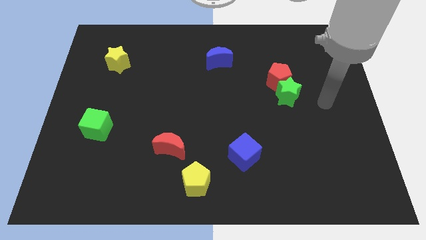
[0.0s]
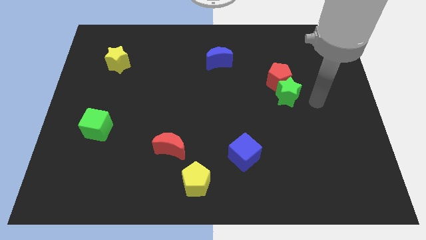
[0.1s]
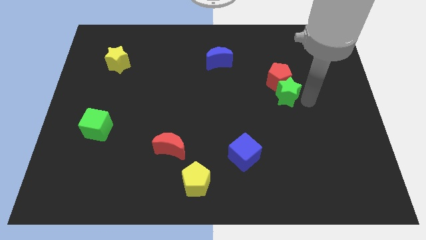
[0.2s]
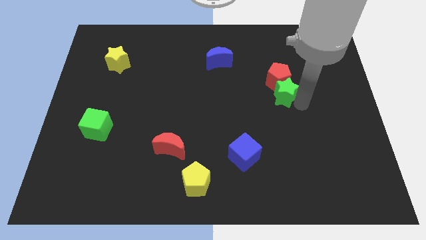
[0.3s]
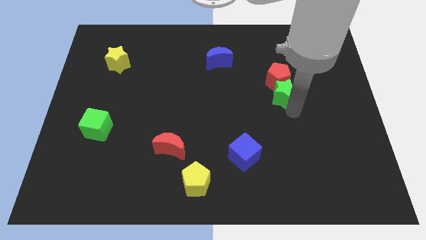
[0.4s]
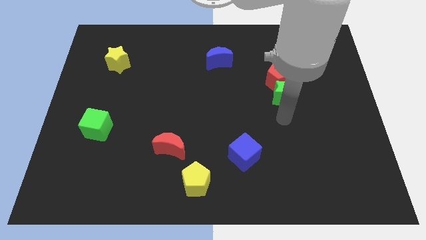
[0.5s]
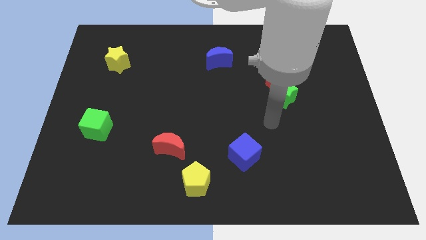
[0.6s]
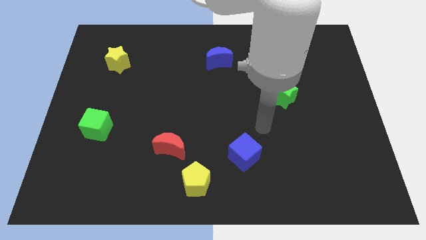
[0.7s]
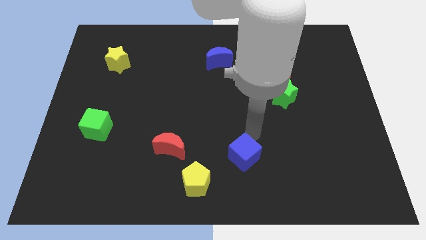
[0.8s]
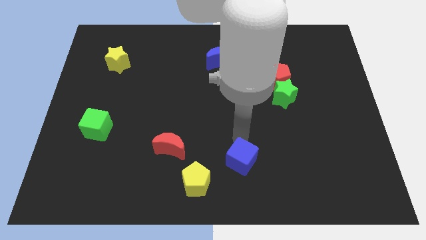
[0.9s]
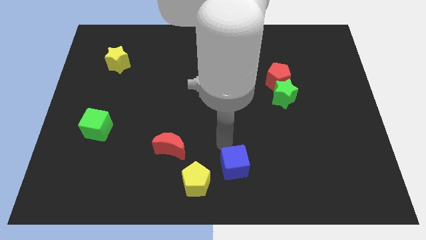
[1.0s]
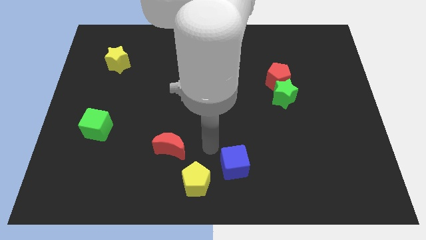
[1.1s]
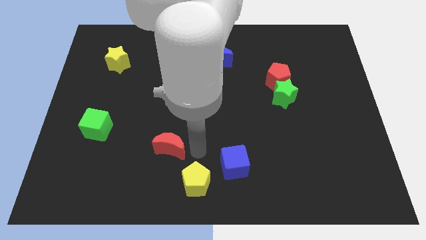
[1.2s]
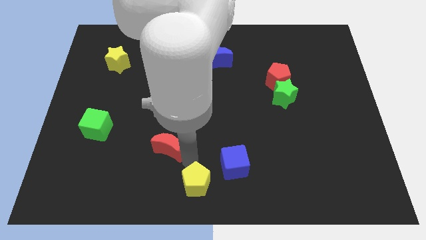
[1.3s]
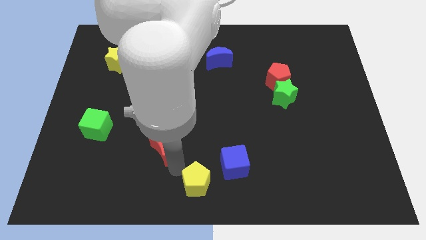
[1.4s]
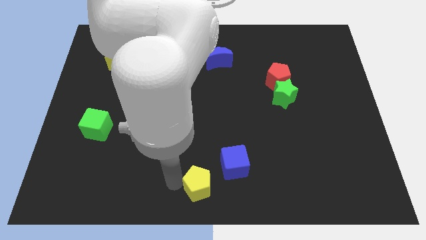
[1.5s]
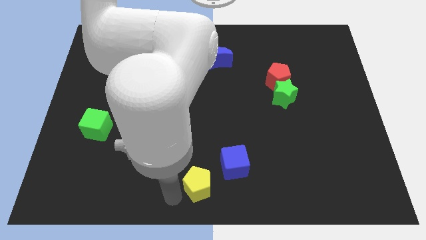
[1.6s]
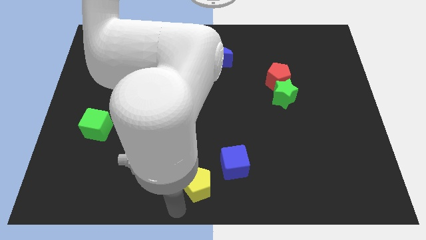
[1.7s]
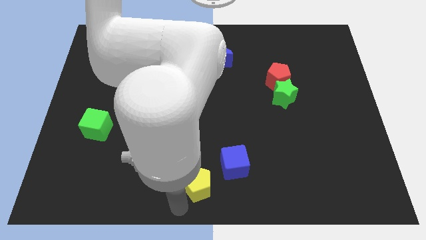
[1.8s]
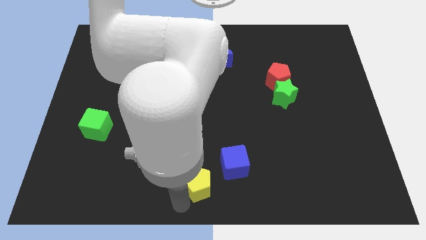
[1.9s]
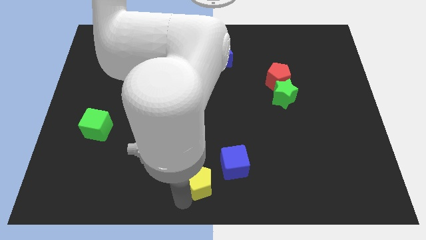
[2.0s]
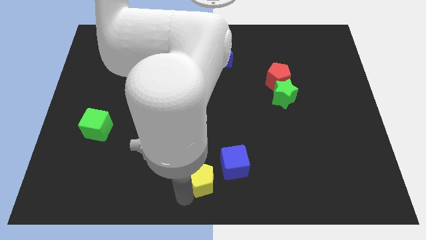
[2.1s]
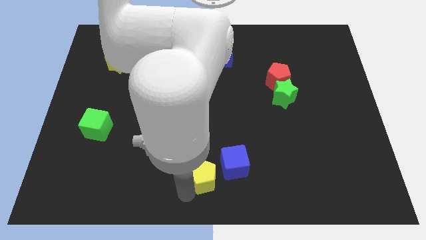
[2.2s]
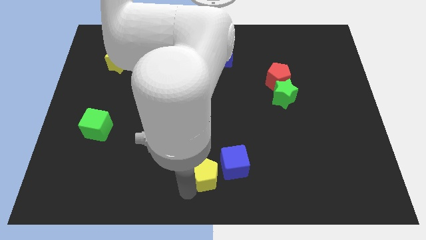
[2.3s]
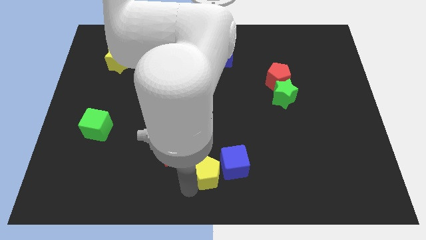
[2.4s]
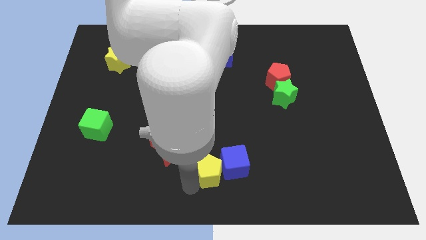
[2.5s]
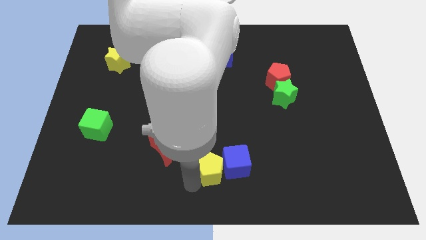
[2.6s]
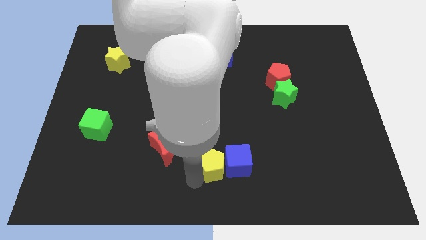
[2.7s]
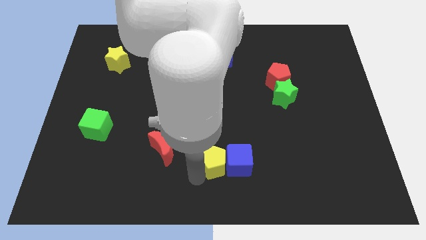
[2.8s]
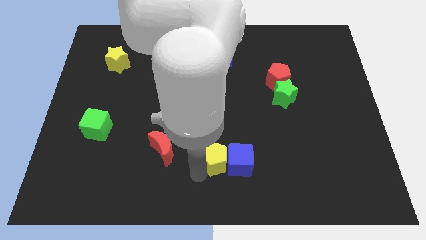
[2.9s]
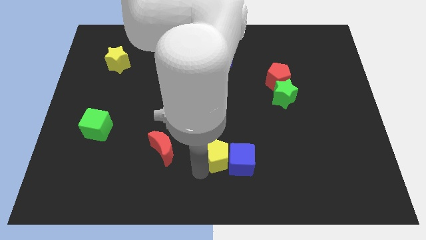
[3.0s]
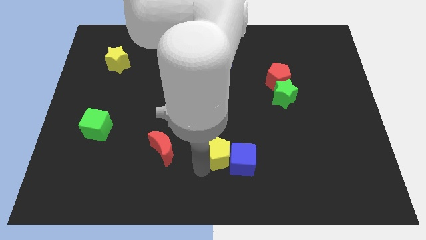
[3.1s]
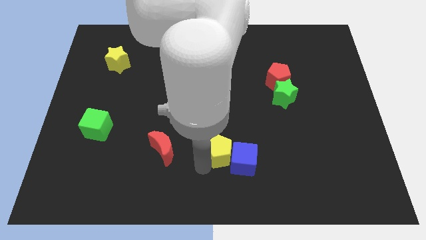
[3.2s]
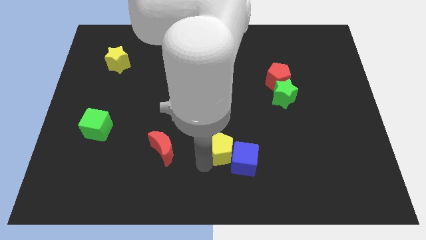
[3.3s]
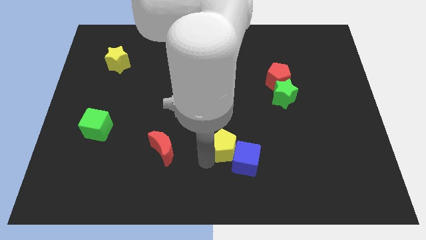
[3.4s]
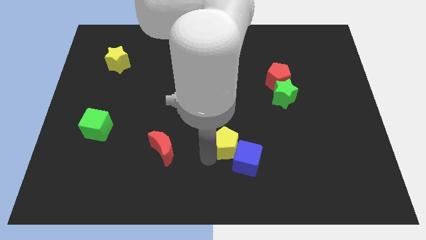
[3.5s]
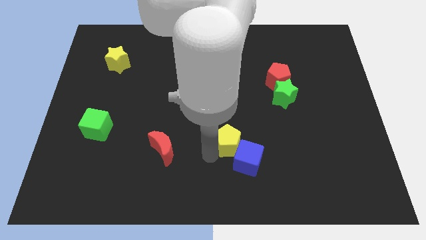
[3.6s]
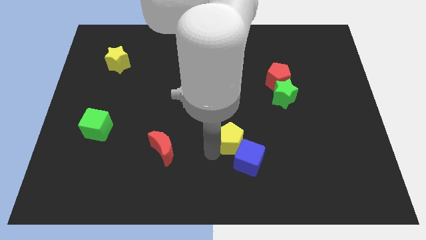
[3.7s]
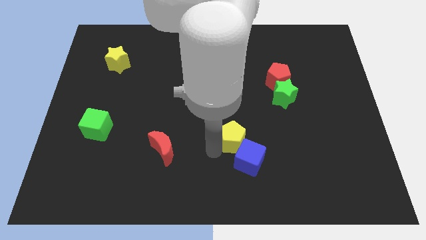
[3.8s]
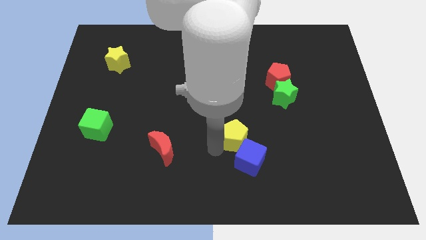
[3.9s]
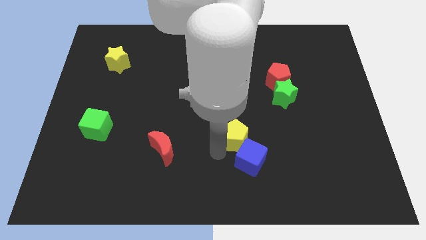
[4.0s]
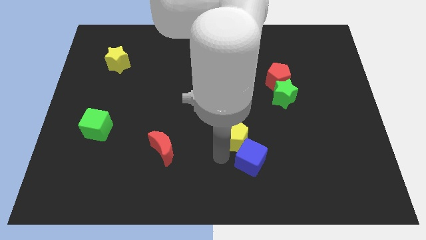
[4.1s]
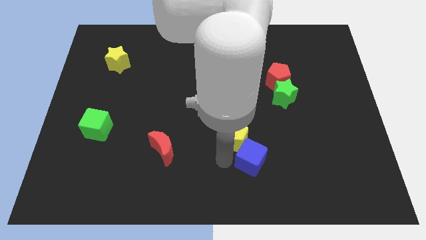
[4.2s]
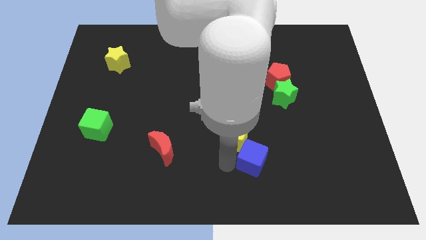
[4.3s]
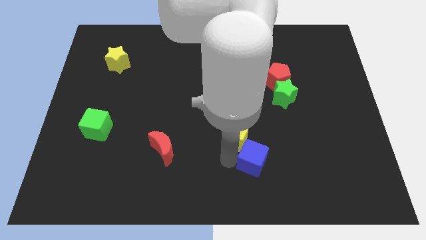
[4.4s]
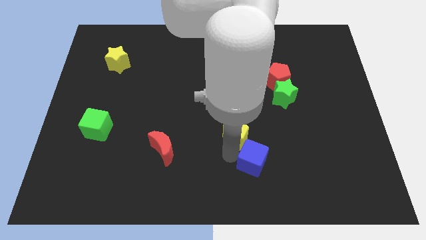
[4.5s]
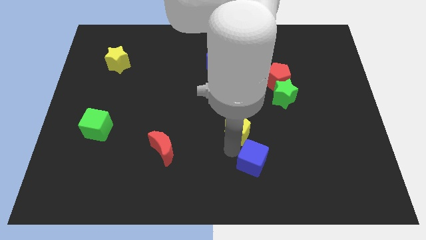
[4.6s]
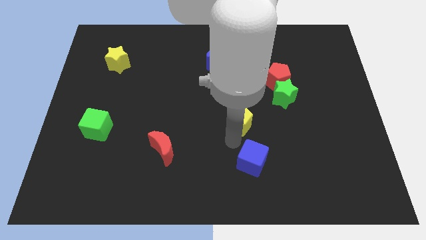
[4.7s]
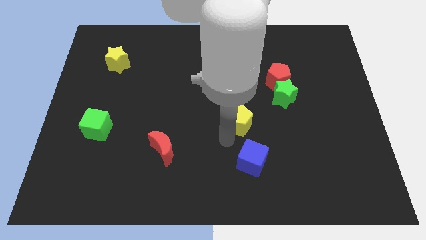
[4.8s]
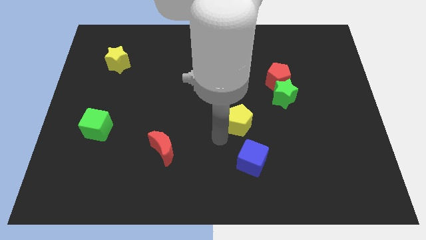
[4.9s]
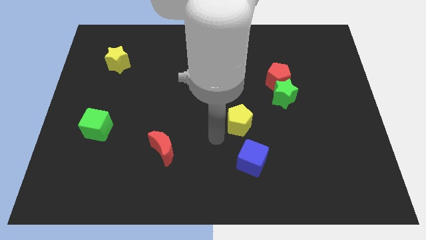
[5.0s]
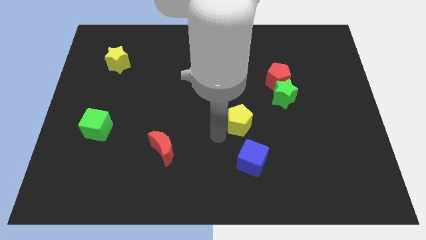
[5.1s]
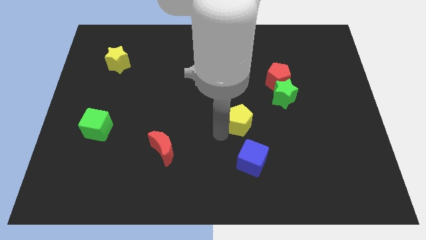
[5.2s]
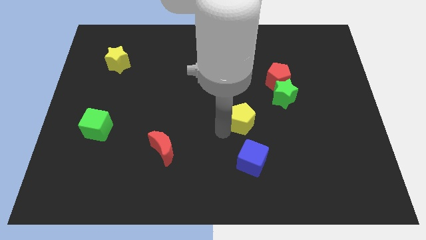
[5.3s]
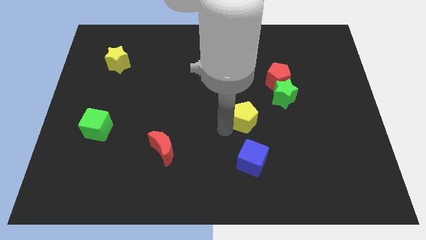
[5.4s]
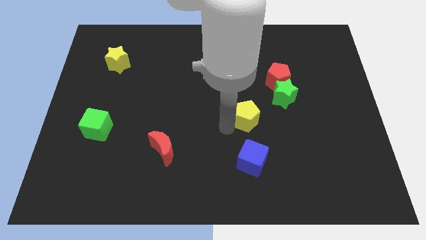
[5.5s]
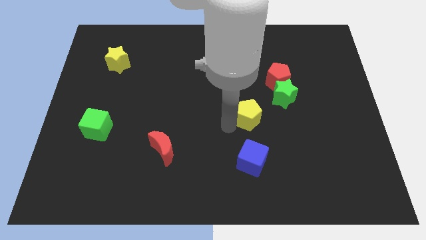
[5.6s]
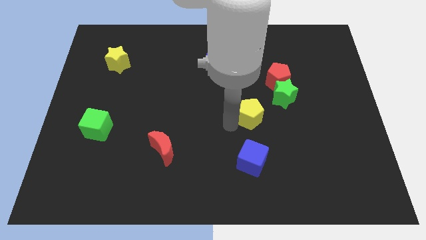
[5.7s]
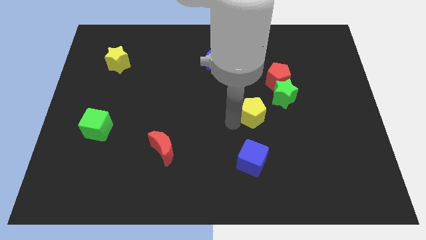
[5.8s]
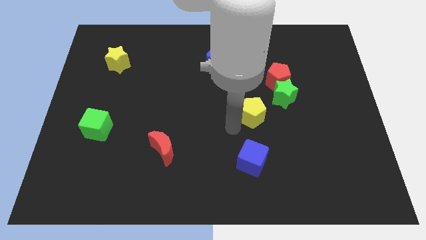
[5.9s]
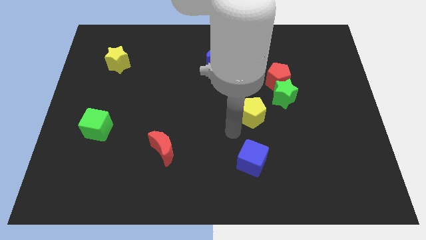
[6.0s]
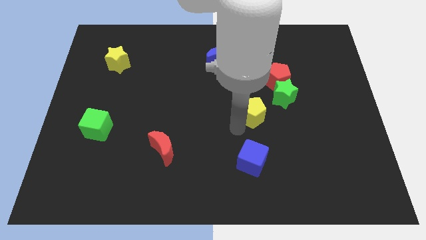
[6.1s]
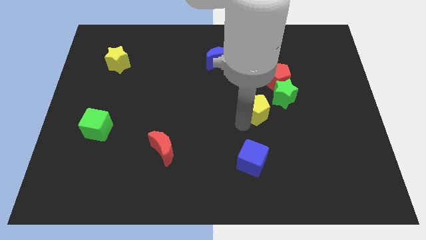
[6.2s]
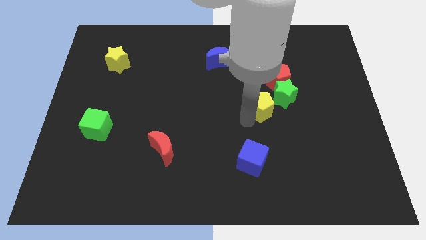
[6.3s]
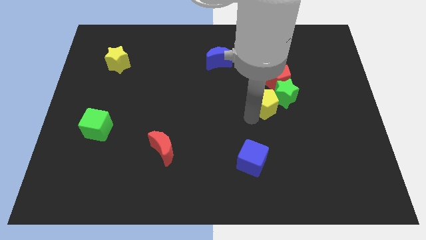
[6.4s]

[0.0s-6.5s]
slide the yellow pentagon close to the green star
